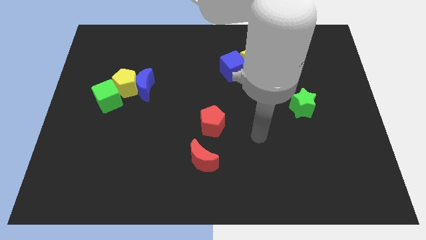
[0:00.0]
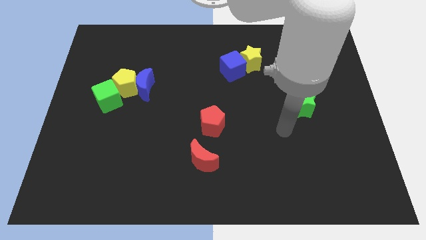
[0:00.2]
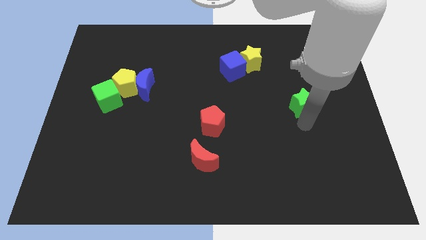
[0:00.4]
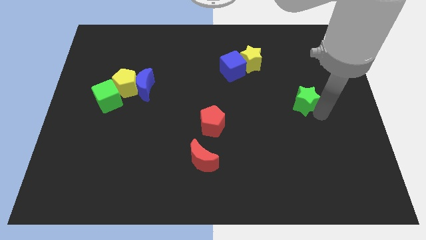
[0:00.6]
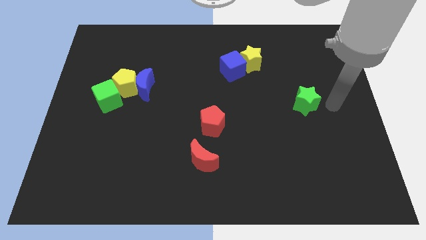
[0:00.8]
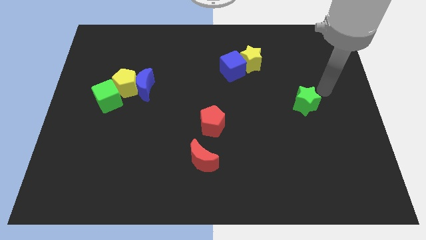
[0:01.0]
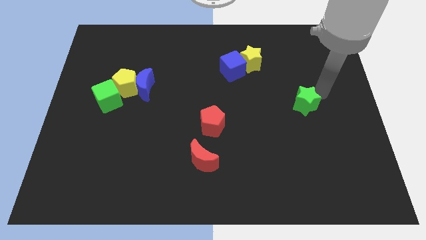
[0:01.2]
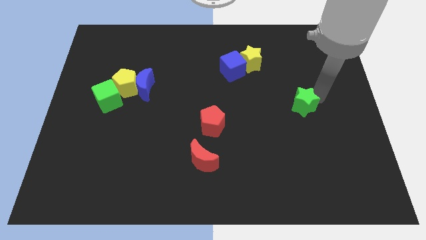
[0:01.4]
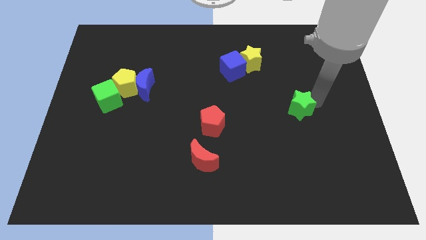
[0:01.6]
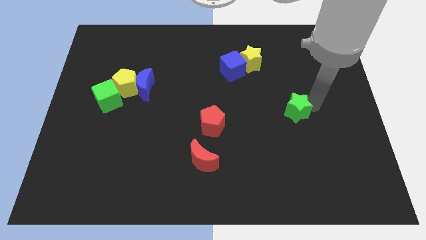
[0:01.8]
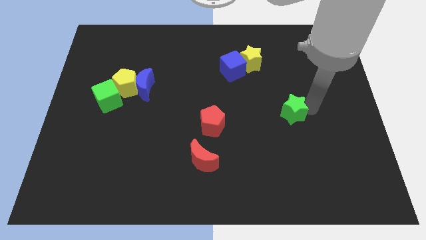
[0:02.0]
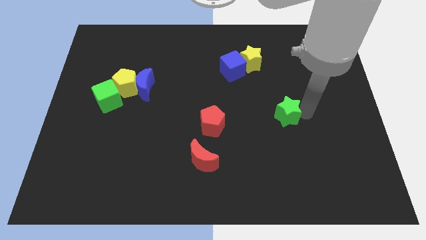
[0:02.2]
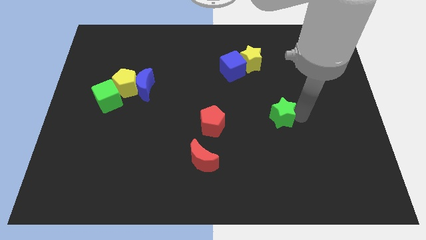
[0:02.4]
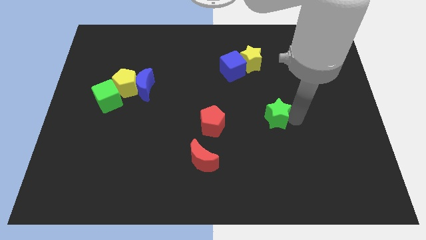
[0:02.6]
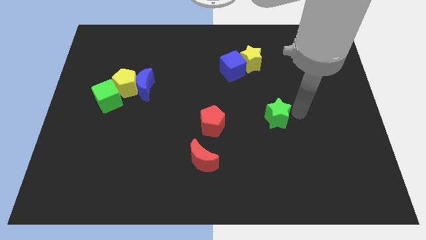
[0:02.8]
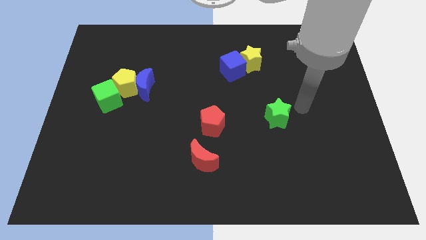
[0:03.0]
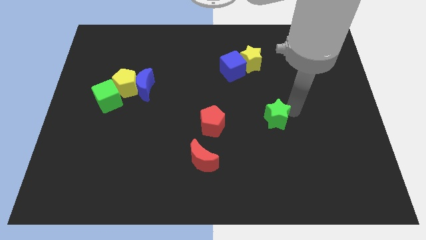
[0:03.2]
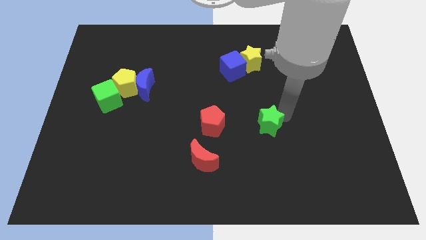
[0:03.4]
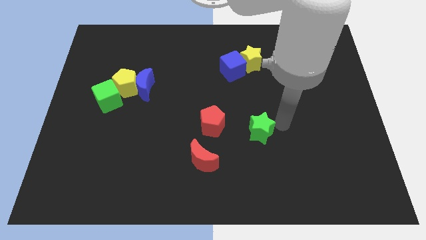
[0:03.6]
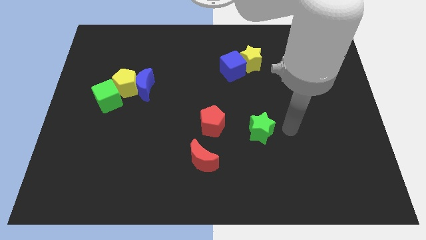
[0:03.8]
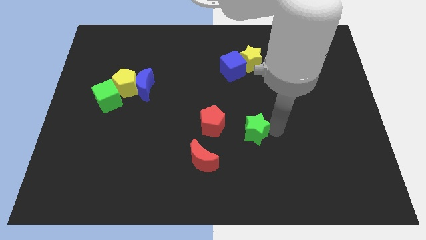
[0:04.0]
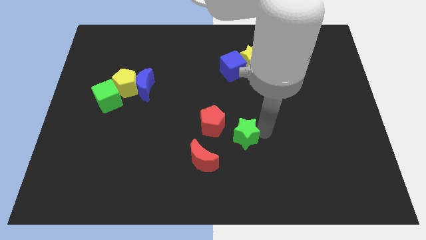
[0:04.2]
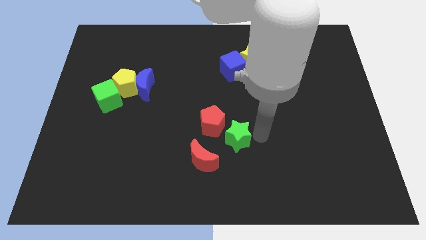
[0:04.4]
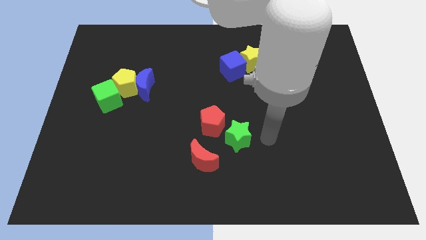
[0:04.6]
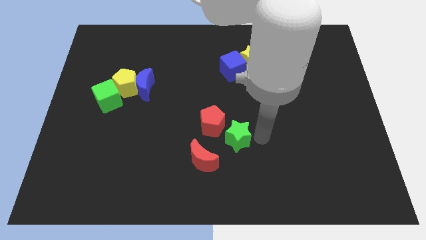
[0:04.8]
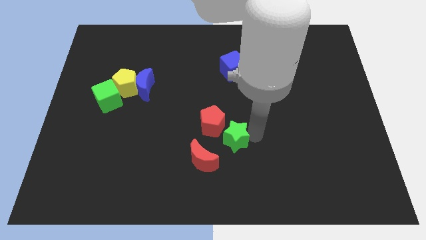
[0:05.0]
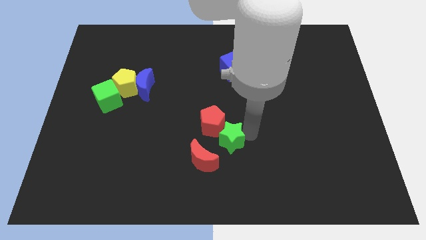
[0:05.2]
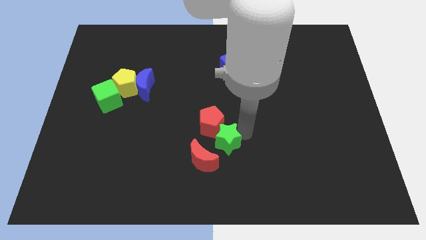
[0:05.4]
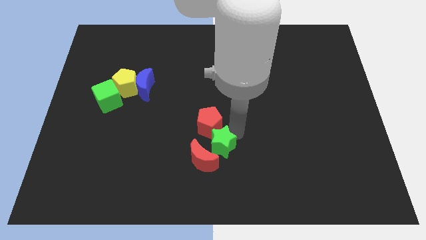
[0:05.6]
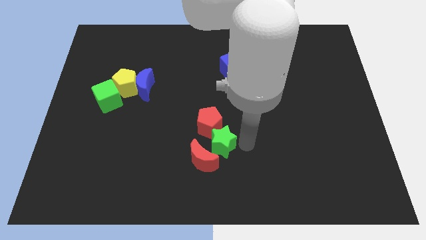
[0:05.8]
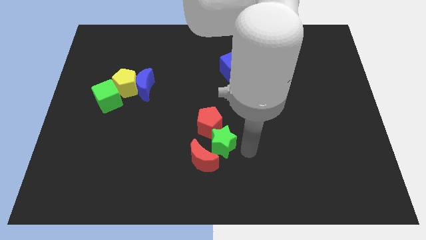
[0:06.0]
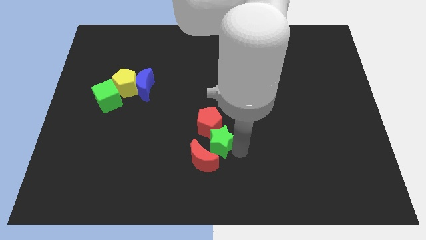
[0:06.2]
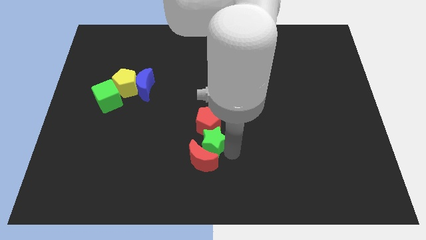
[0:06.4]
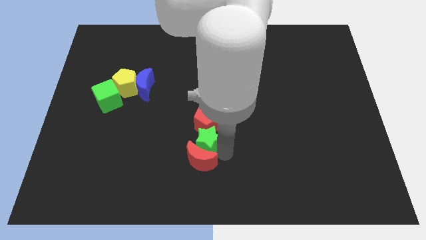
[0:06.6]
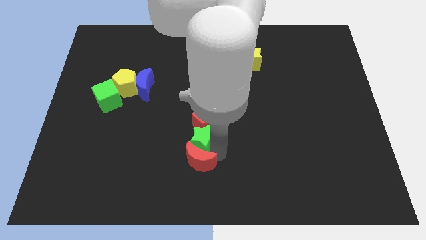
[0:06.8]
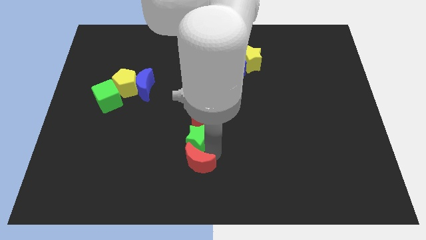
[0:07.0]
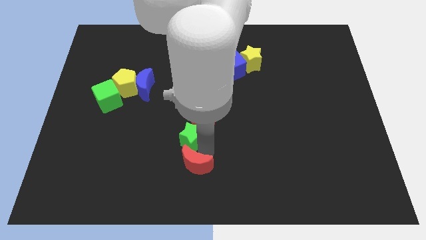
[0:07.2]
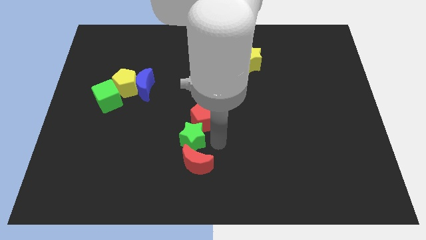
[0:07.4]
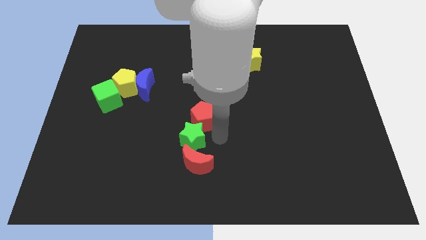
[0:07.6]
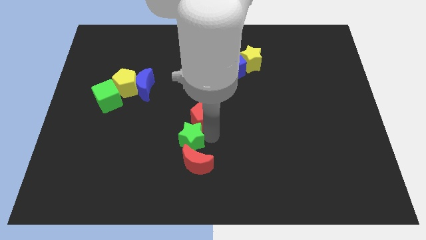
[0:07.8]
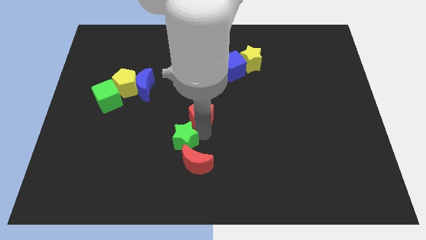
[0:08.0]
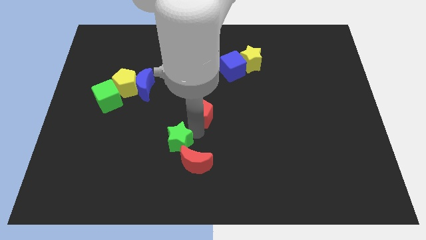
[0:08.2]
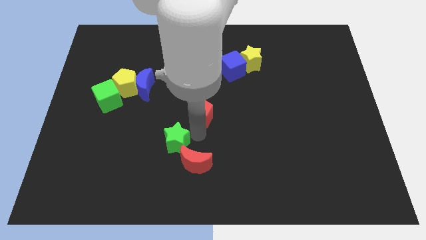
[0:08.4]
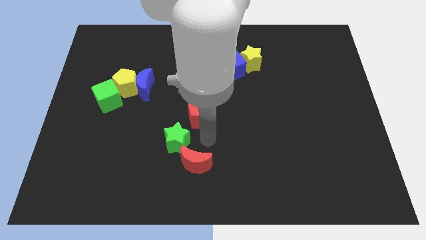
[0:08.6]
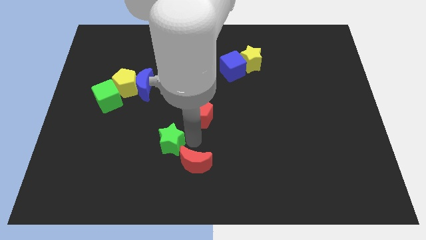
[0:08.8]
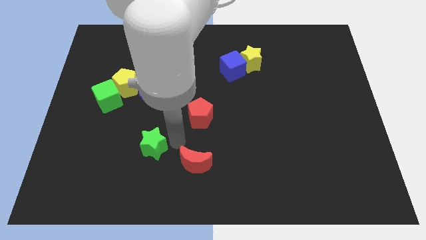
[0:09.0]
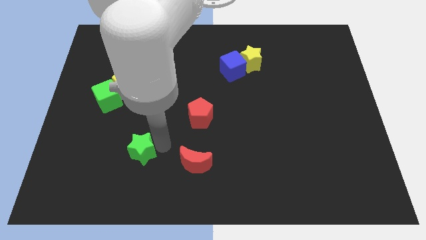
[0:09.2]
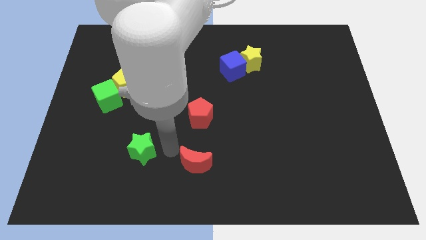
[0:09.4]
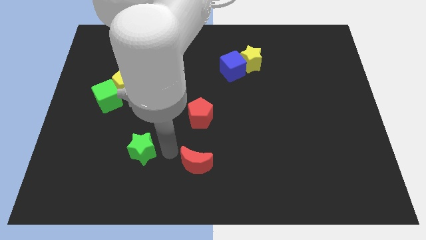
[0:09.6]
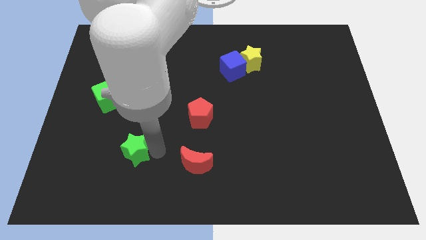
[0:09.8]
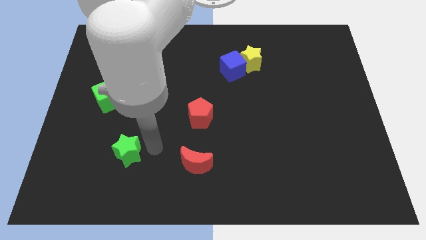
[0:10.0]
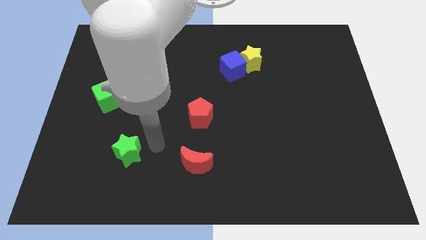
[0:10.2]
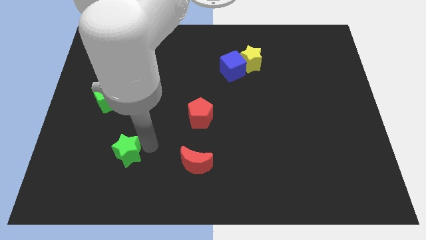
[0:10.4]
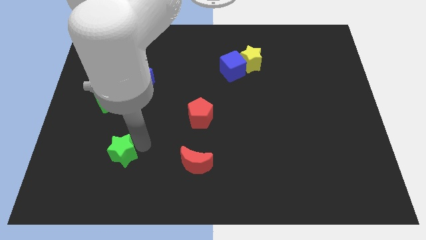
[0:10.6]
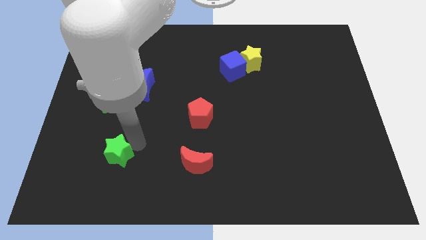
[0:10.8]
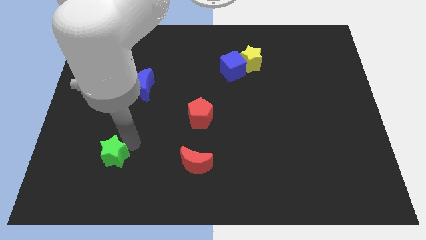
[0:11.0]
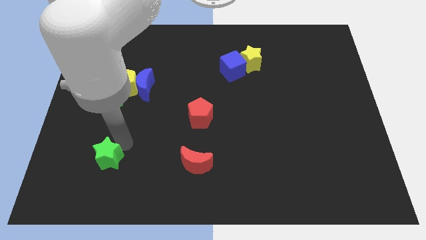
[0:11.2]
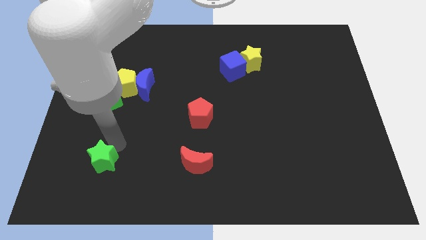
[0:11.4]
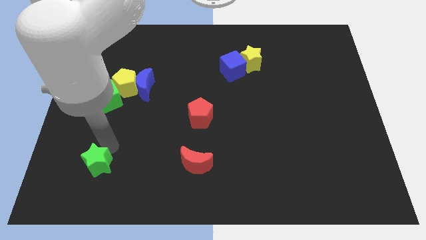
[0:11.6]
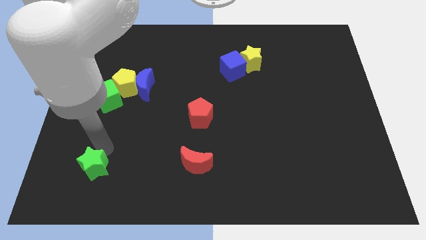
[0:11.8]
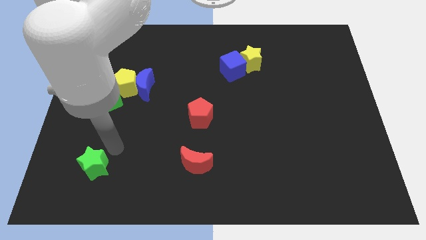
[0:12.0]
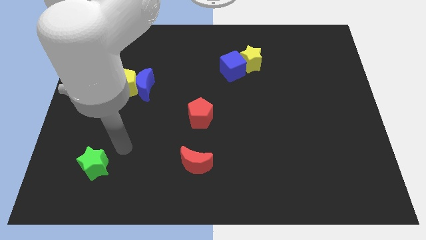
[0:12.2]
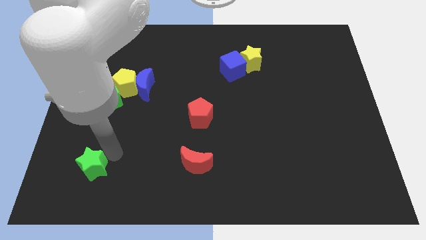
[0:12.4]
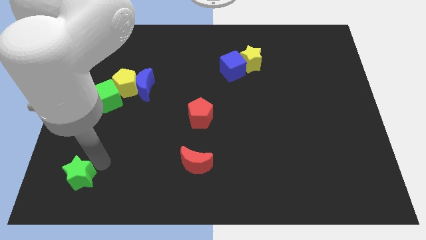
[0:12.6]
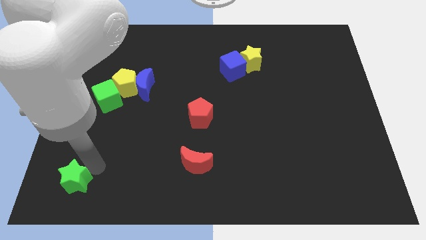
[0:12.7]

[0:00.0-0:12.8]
slide the green star to the bottom left
